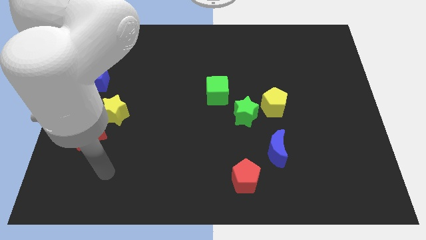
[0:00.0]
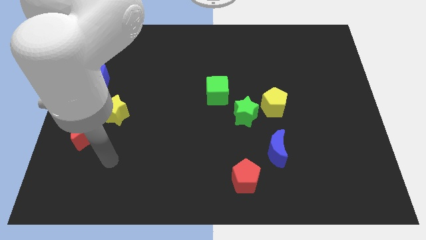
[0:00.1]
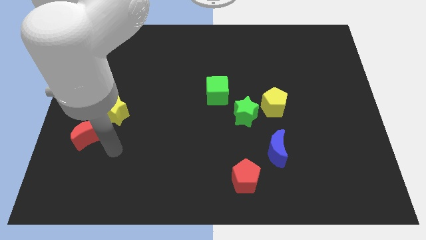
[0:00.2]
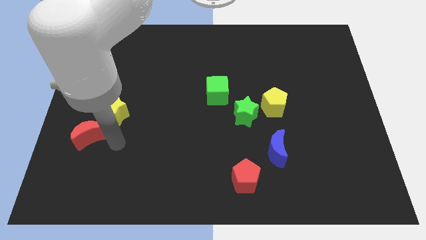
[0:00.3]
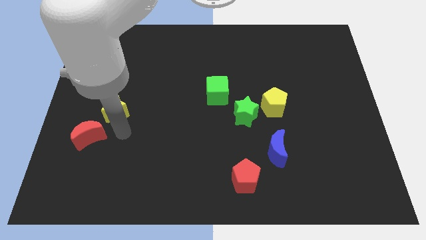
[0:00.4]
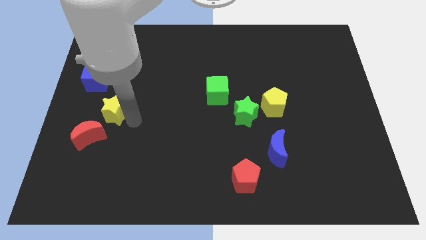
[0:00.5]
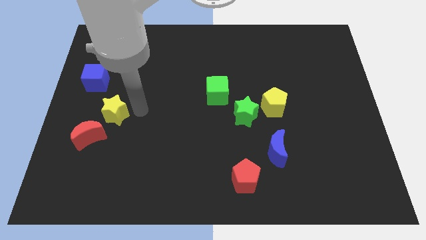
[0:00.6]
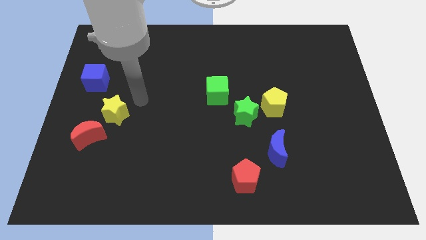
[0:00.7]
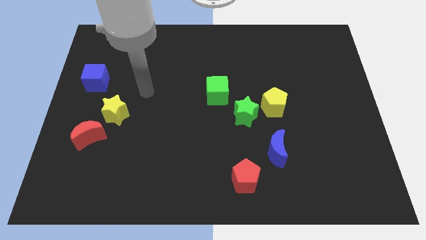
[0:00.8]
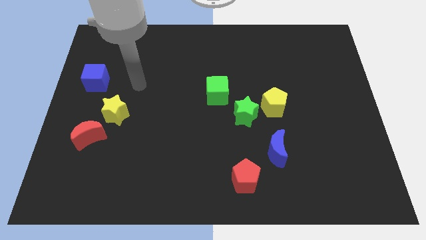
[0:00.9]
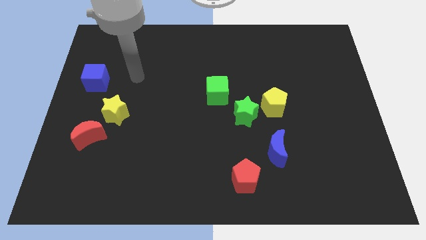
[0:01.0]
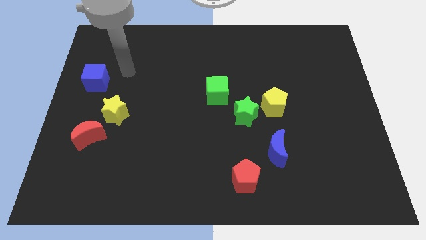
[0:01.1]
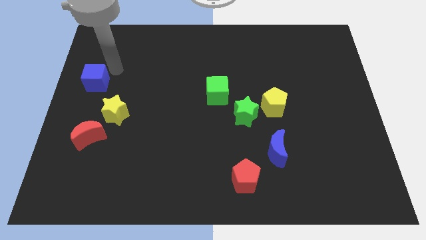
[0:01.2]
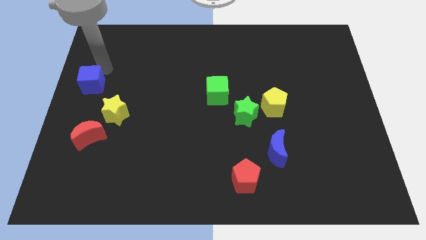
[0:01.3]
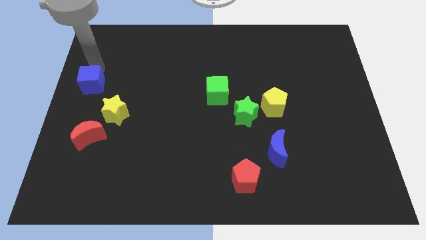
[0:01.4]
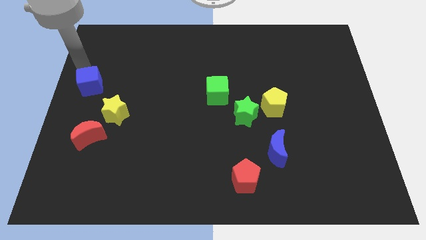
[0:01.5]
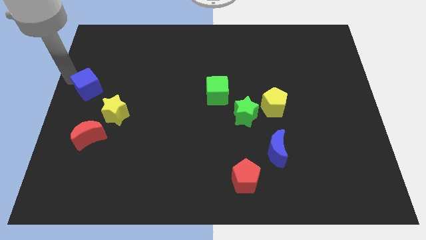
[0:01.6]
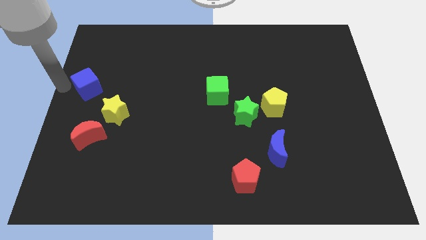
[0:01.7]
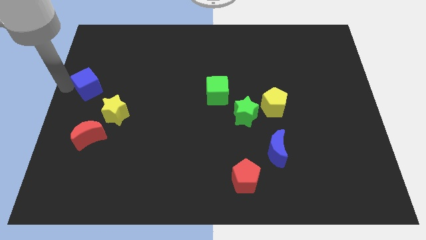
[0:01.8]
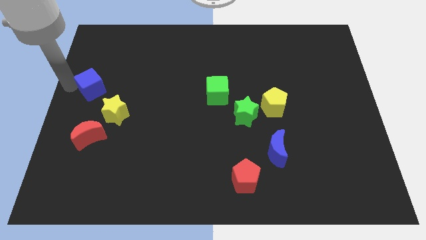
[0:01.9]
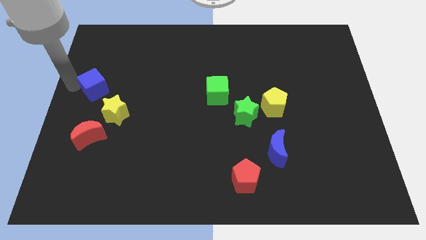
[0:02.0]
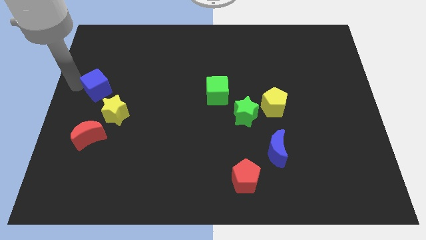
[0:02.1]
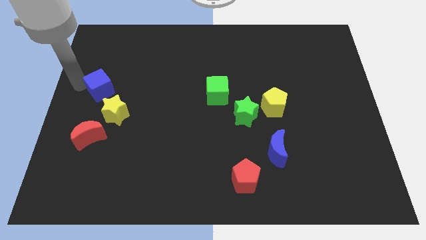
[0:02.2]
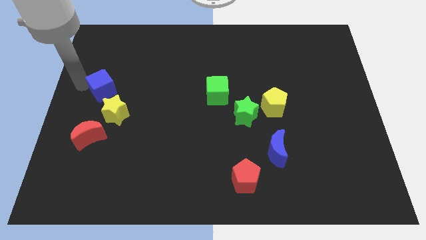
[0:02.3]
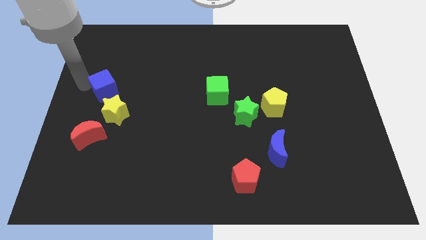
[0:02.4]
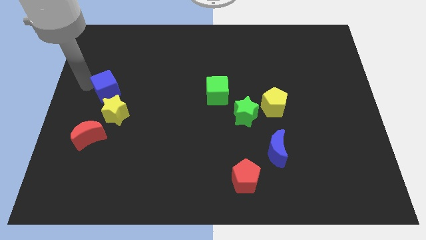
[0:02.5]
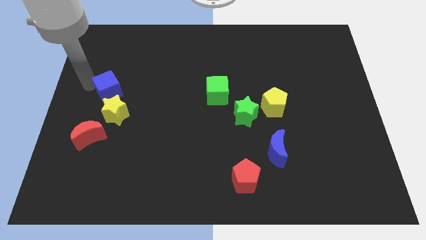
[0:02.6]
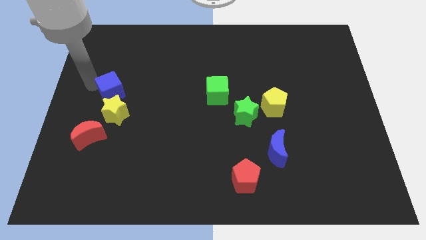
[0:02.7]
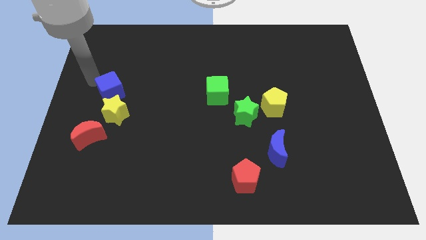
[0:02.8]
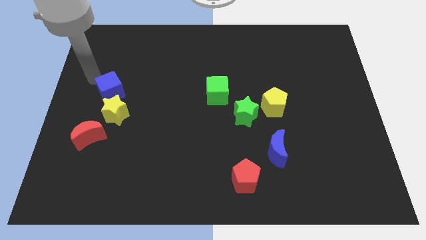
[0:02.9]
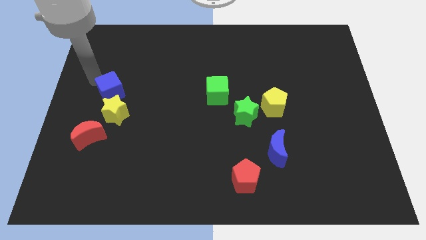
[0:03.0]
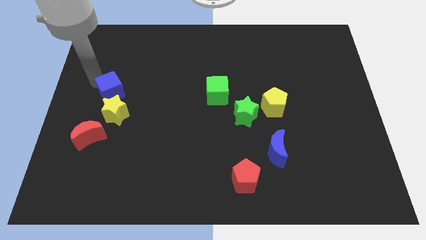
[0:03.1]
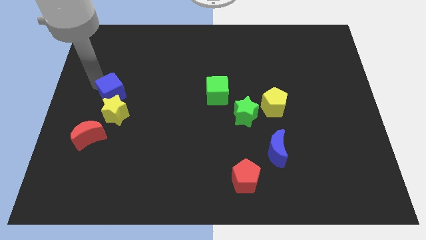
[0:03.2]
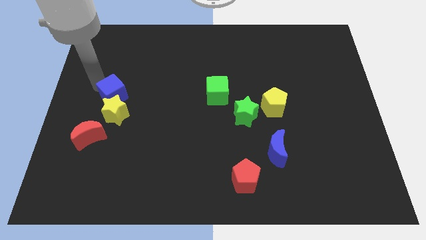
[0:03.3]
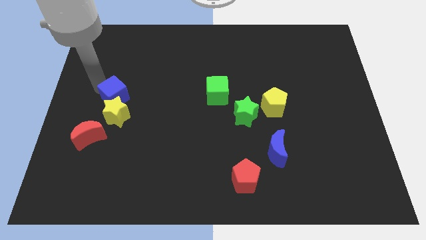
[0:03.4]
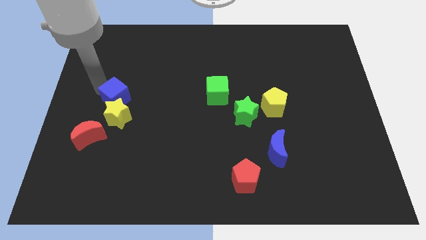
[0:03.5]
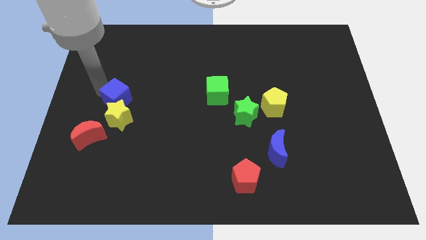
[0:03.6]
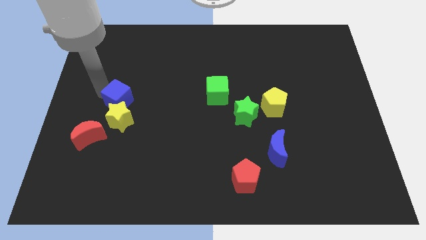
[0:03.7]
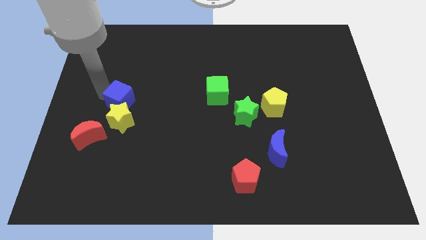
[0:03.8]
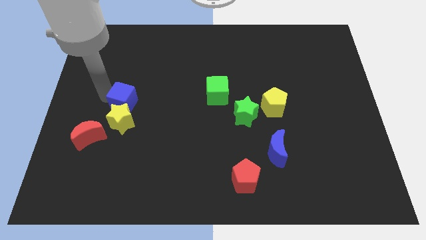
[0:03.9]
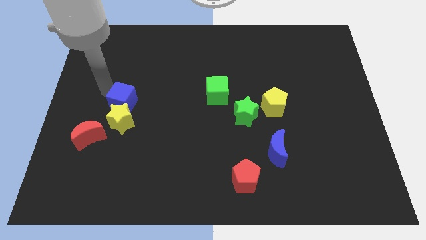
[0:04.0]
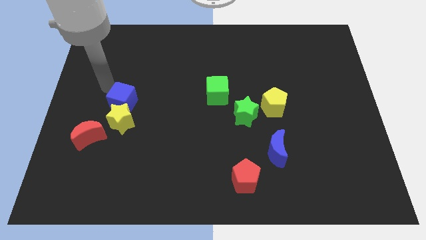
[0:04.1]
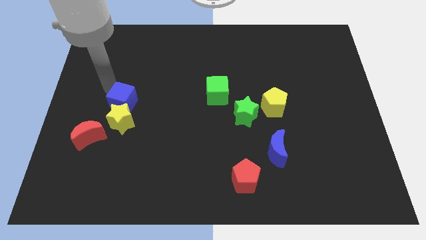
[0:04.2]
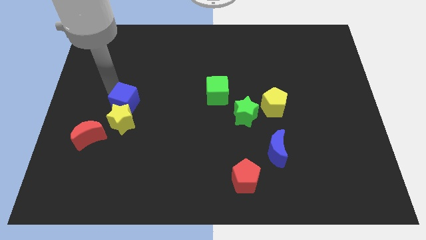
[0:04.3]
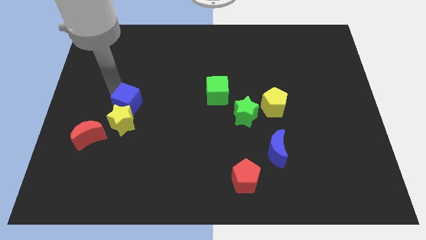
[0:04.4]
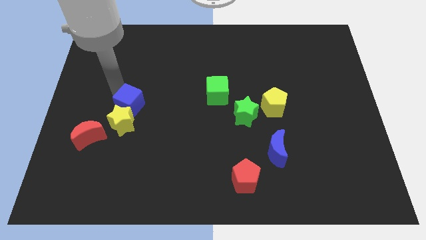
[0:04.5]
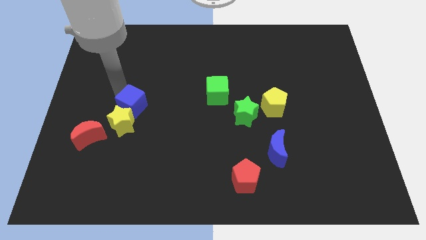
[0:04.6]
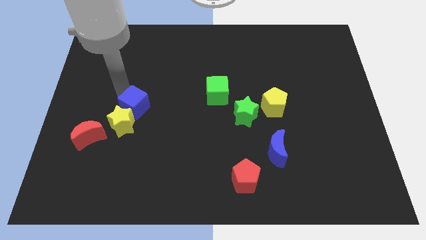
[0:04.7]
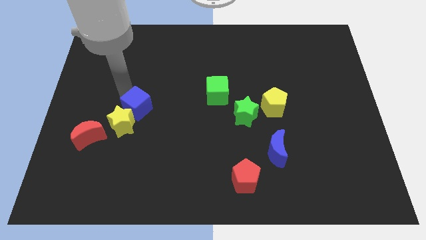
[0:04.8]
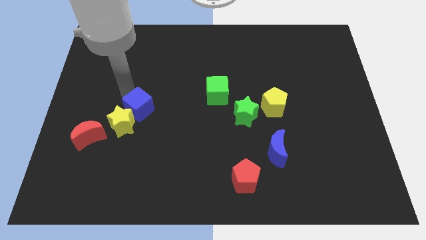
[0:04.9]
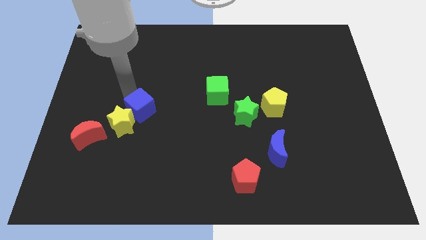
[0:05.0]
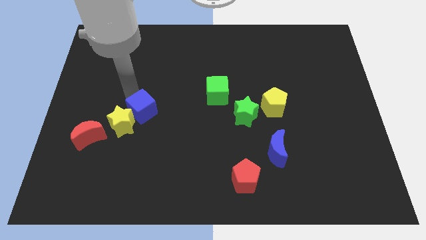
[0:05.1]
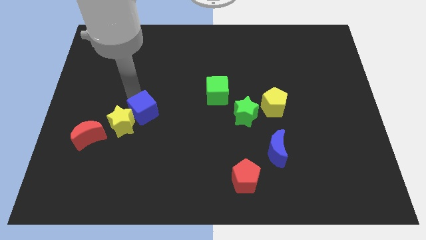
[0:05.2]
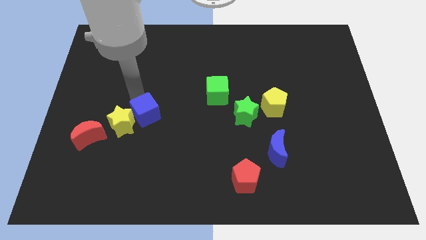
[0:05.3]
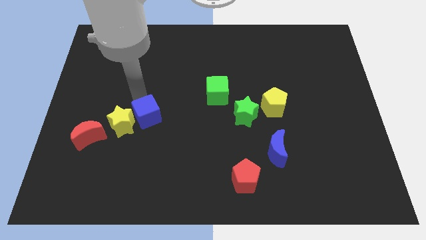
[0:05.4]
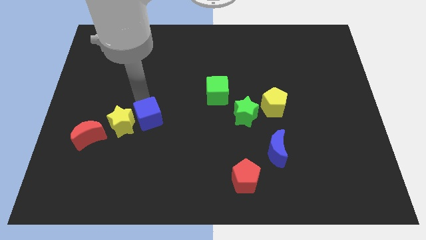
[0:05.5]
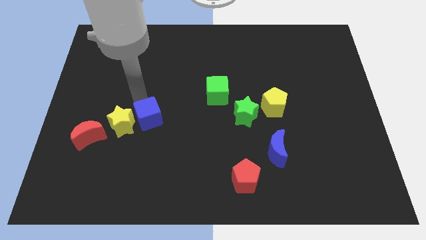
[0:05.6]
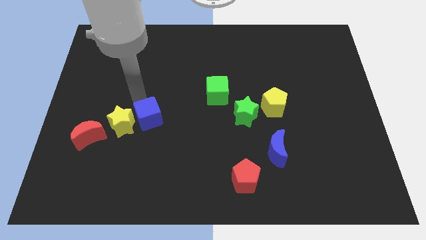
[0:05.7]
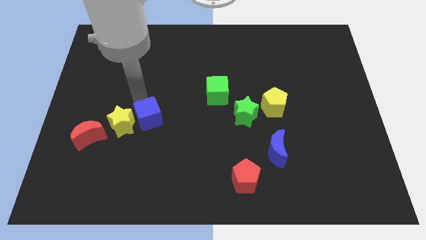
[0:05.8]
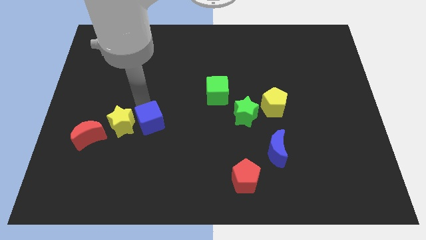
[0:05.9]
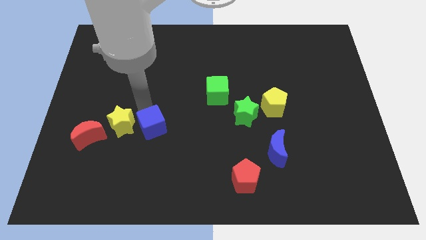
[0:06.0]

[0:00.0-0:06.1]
push the blue cube downwards and then right

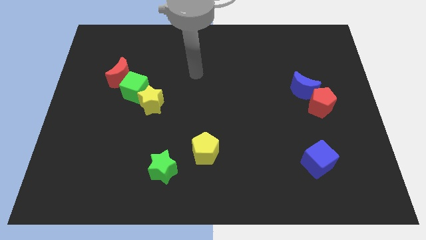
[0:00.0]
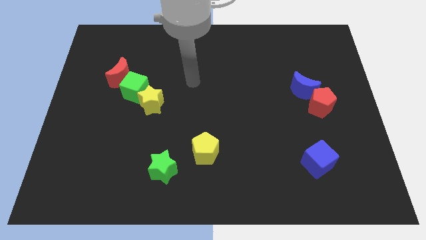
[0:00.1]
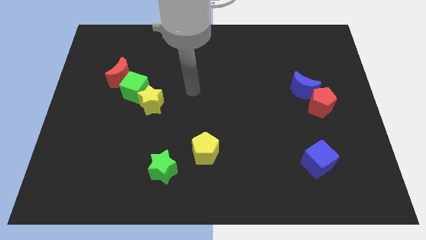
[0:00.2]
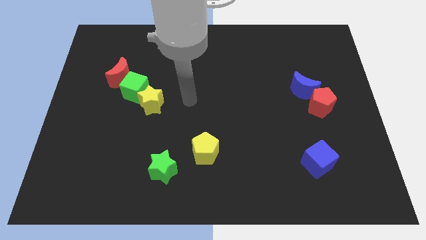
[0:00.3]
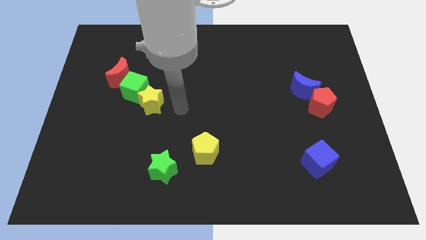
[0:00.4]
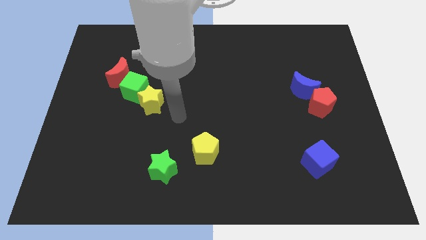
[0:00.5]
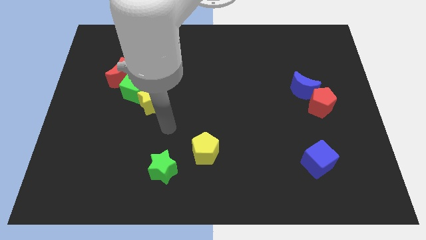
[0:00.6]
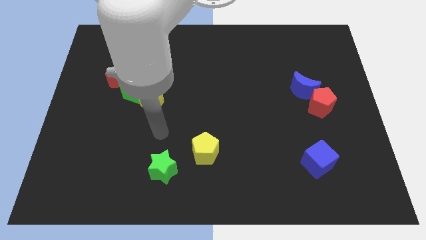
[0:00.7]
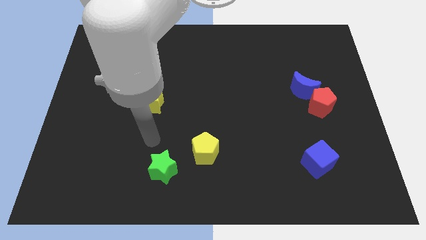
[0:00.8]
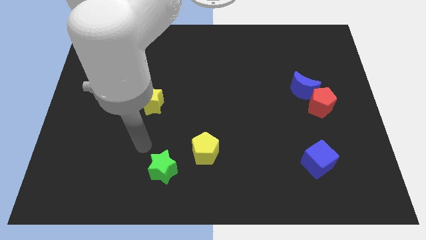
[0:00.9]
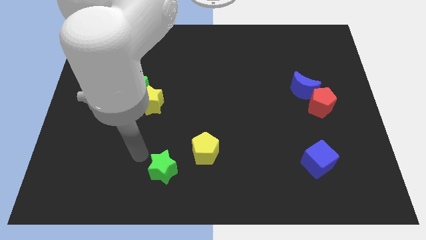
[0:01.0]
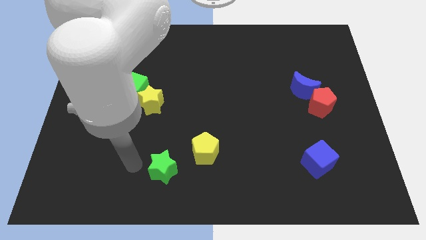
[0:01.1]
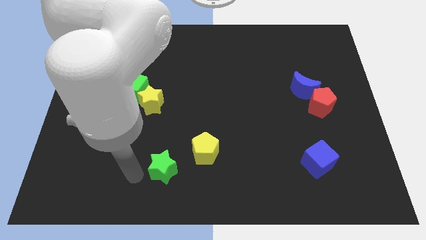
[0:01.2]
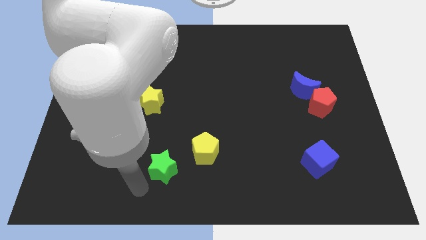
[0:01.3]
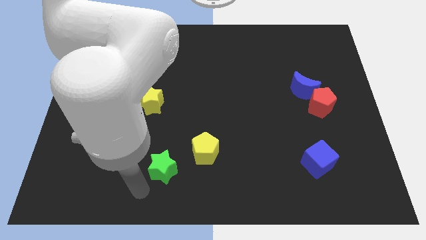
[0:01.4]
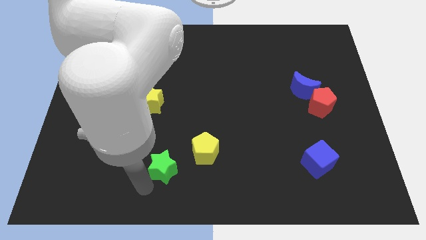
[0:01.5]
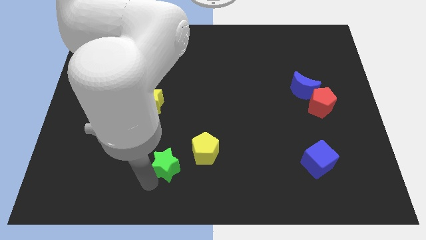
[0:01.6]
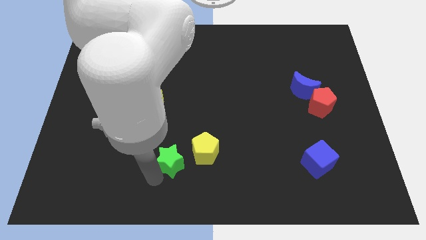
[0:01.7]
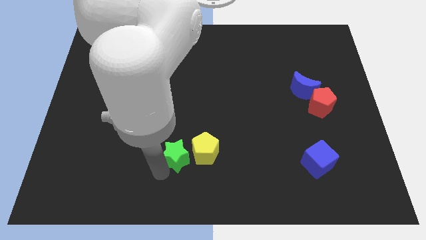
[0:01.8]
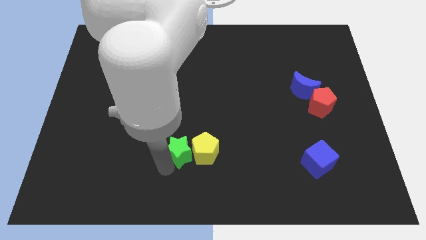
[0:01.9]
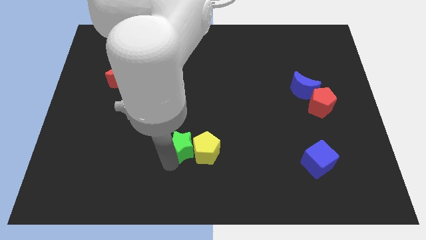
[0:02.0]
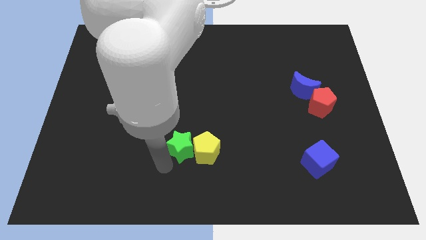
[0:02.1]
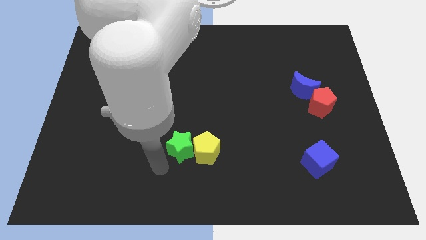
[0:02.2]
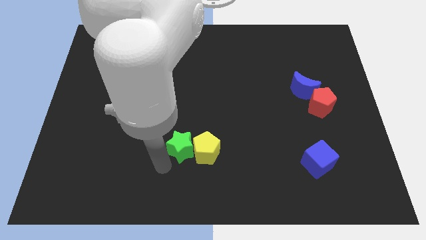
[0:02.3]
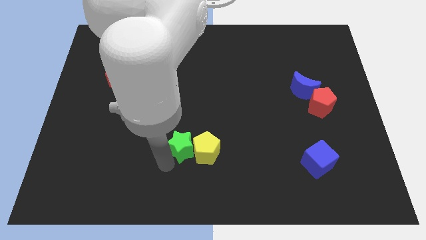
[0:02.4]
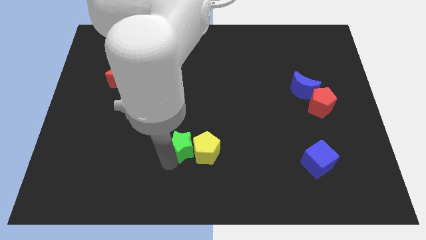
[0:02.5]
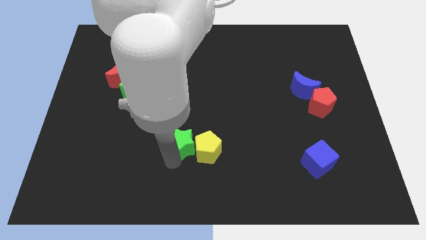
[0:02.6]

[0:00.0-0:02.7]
slightly move the green star diagonally upwards and right
